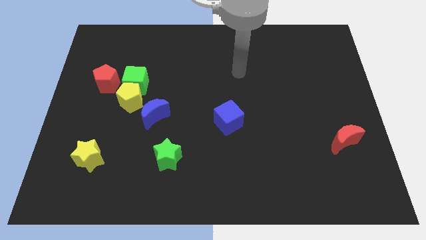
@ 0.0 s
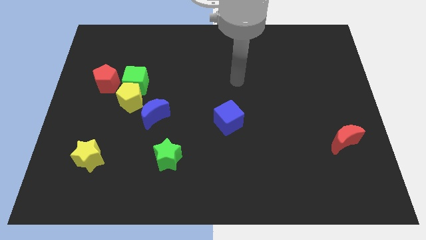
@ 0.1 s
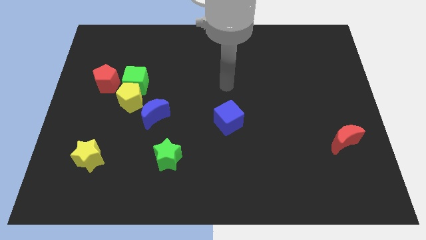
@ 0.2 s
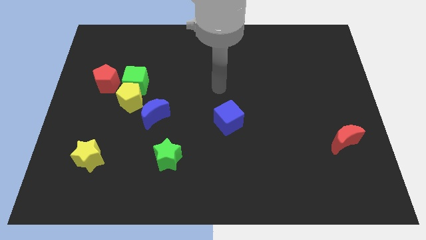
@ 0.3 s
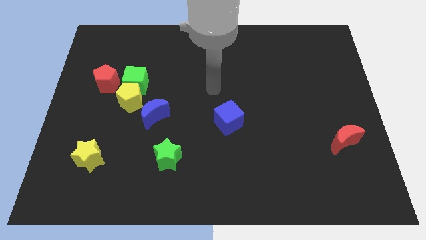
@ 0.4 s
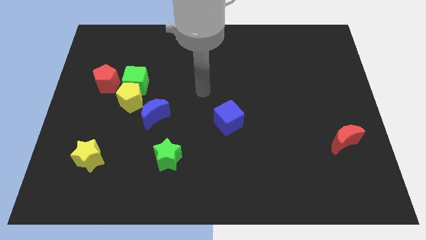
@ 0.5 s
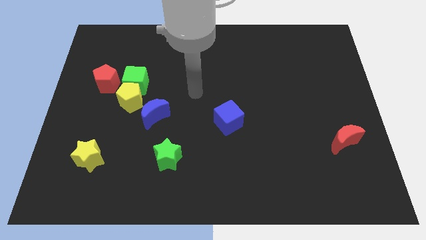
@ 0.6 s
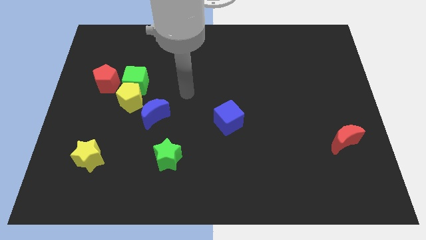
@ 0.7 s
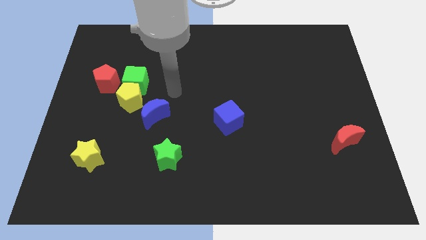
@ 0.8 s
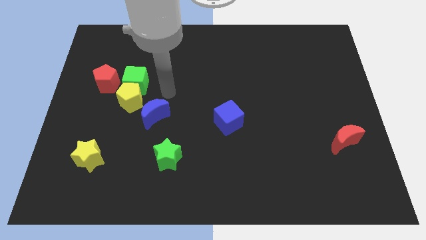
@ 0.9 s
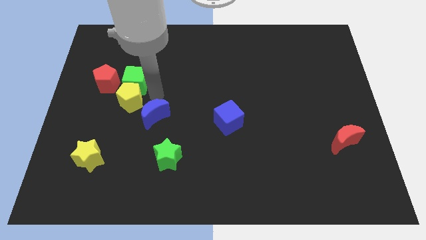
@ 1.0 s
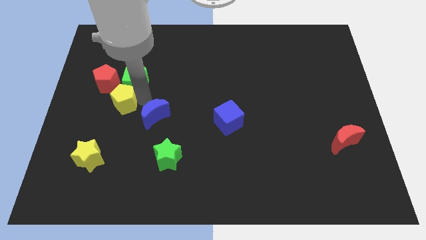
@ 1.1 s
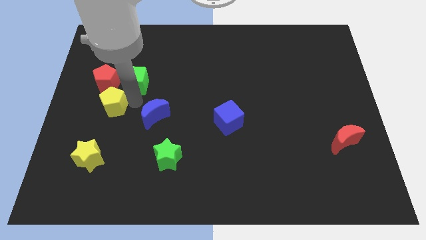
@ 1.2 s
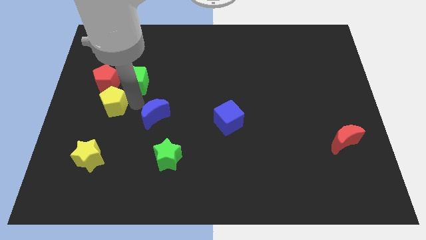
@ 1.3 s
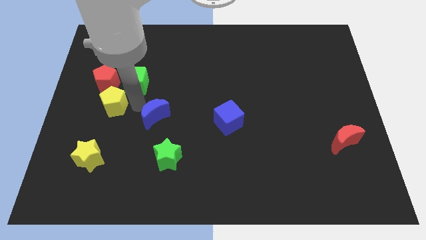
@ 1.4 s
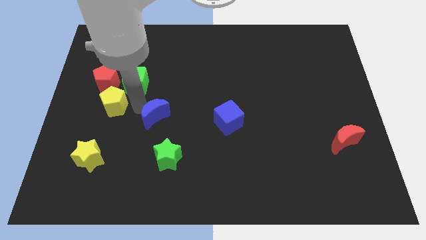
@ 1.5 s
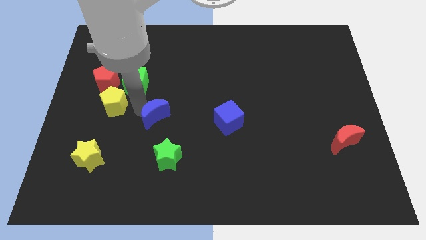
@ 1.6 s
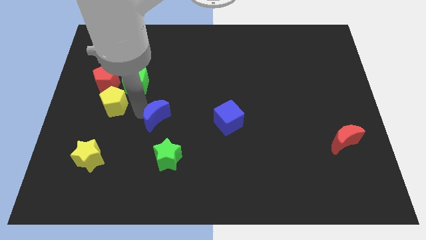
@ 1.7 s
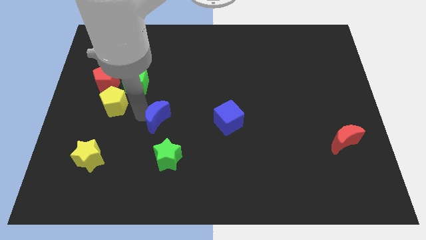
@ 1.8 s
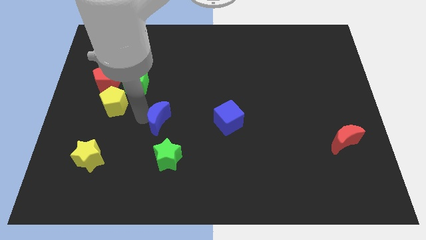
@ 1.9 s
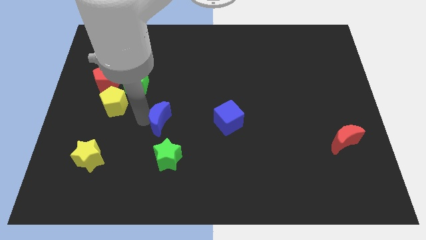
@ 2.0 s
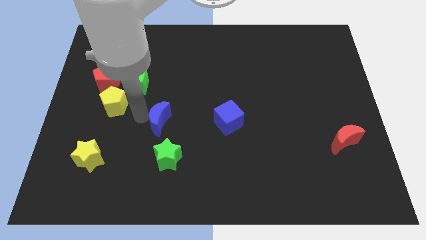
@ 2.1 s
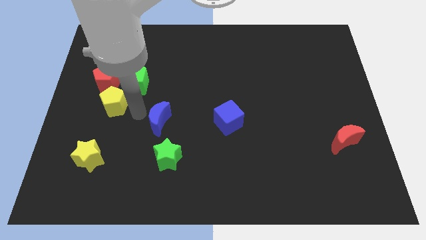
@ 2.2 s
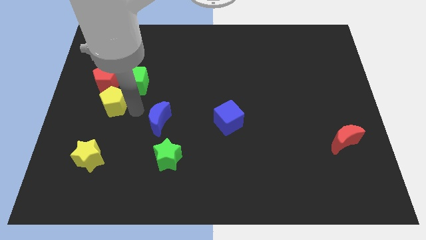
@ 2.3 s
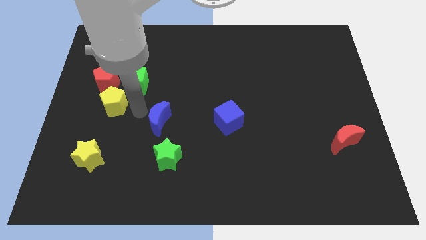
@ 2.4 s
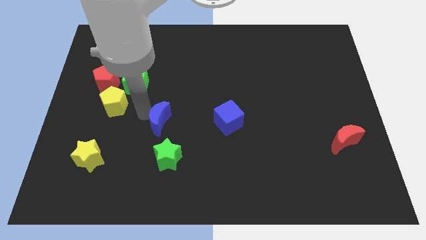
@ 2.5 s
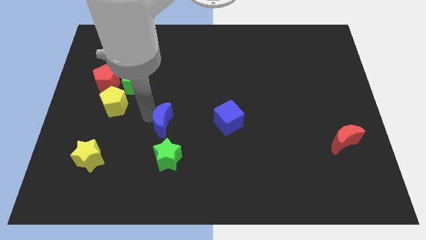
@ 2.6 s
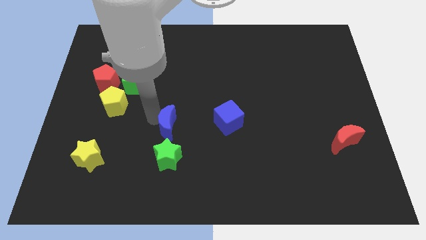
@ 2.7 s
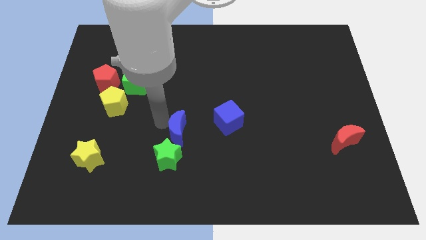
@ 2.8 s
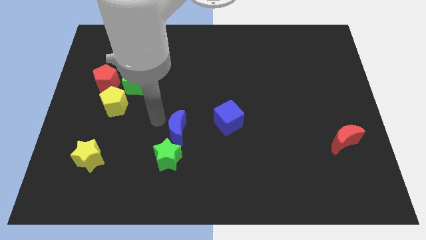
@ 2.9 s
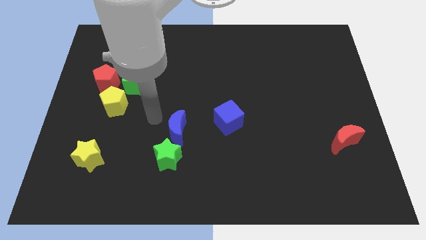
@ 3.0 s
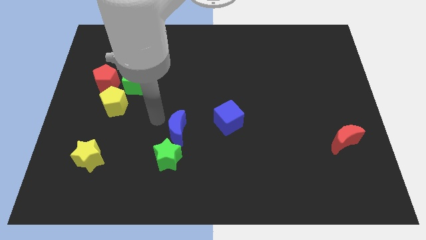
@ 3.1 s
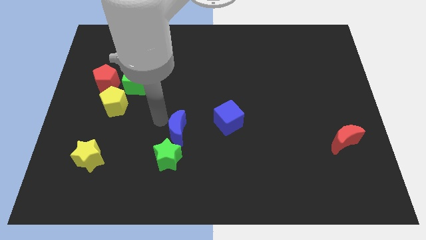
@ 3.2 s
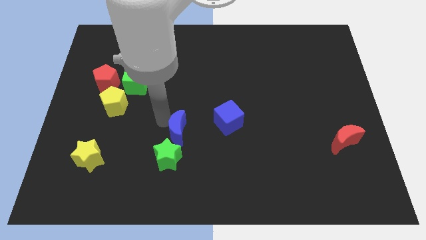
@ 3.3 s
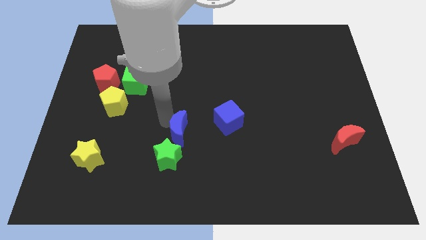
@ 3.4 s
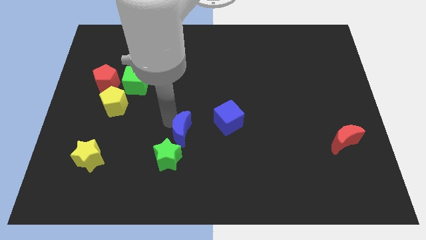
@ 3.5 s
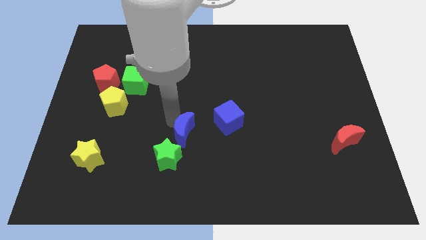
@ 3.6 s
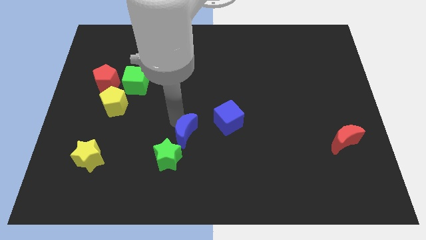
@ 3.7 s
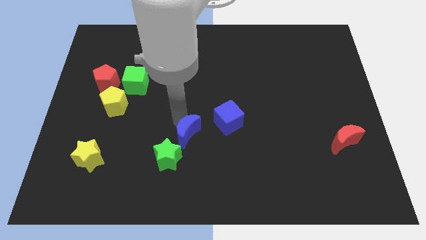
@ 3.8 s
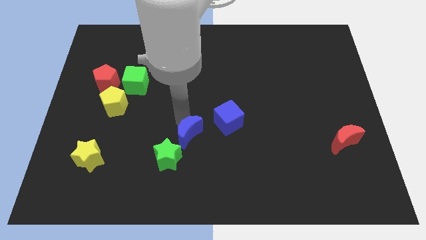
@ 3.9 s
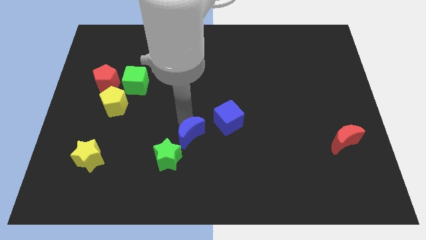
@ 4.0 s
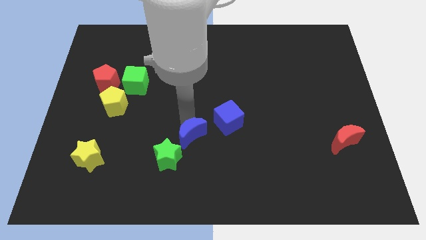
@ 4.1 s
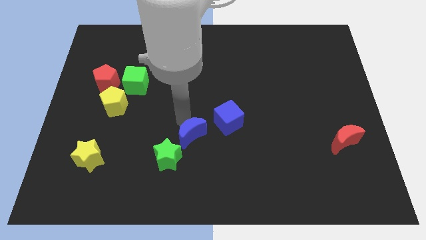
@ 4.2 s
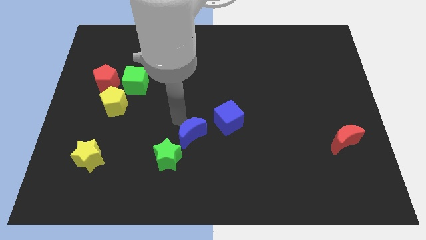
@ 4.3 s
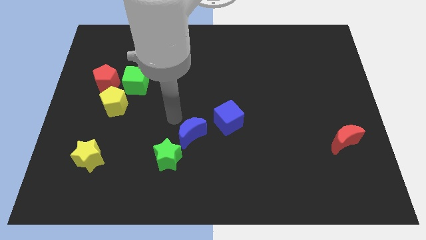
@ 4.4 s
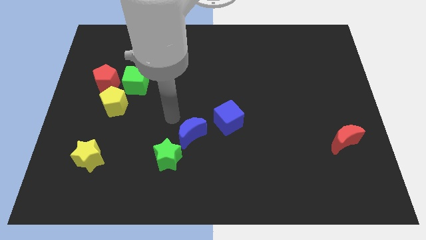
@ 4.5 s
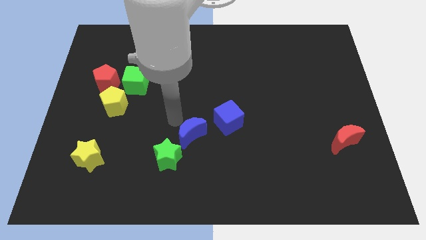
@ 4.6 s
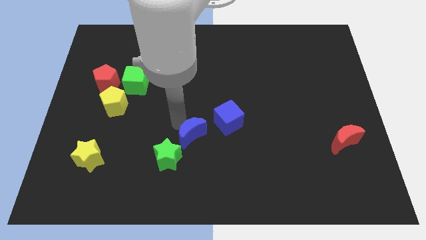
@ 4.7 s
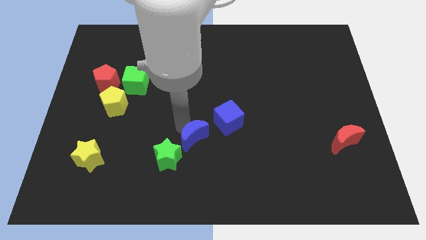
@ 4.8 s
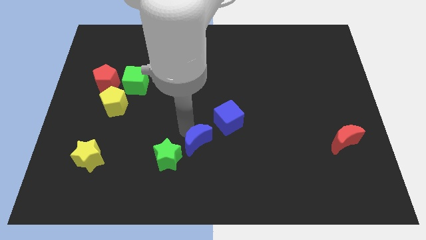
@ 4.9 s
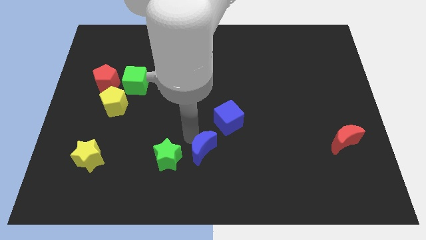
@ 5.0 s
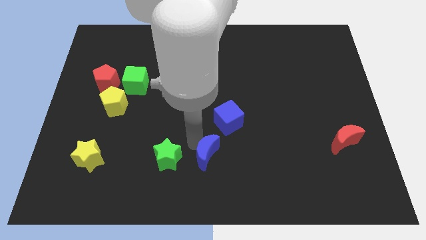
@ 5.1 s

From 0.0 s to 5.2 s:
push the blue moon to the bottom of the blue cube

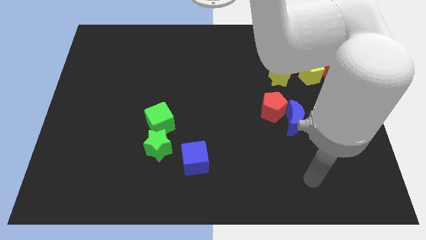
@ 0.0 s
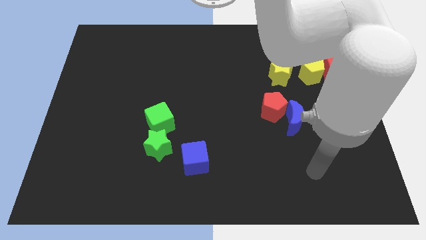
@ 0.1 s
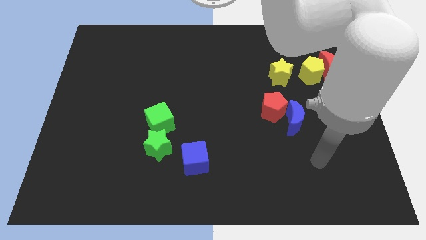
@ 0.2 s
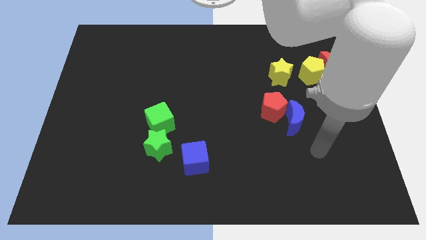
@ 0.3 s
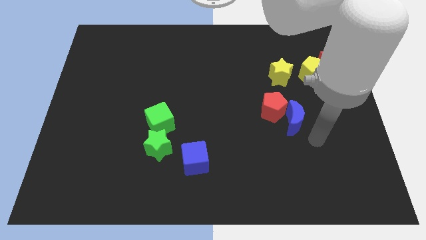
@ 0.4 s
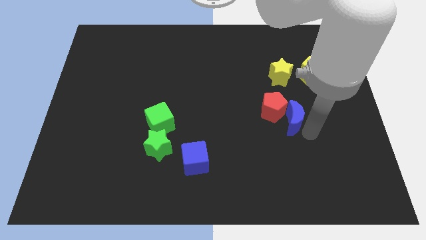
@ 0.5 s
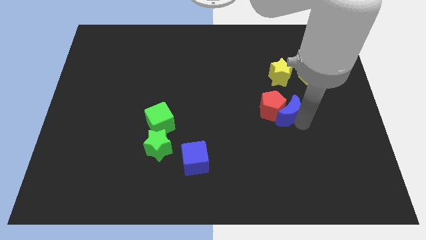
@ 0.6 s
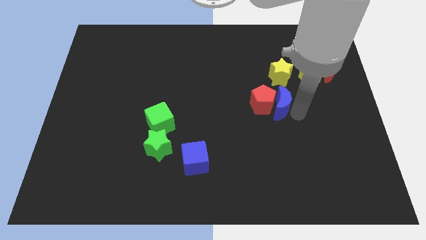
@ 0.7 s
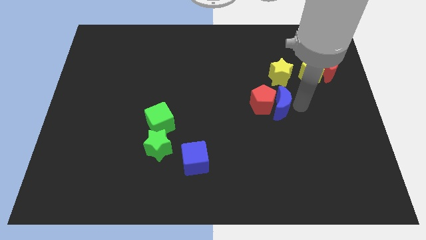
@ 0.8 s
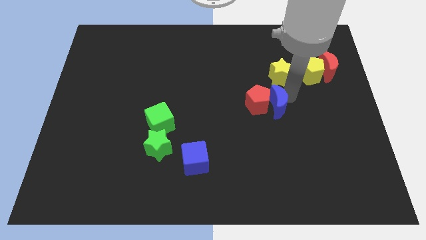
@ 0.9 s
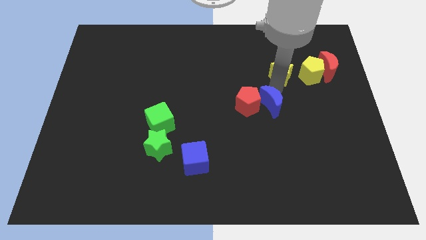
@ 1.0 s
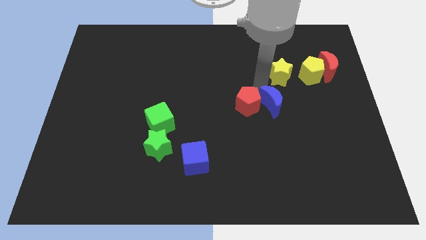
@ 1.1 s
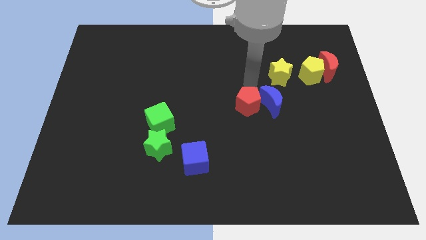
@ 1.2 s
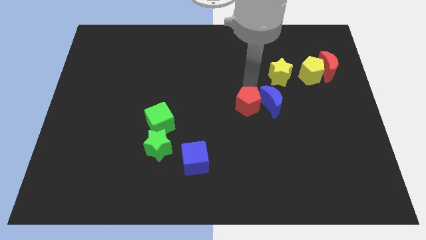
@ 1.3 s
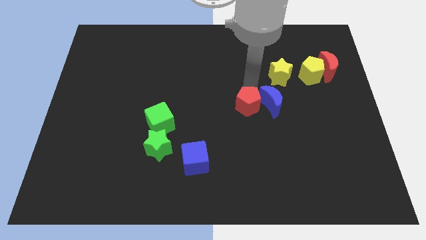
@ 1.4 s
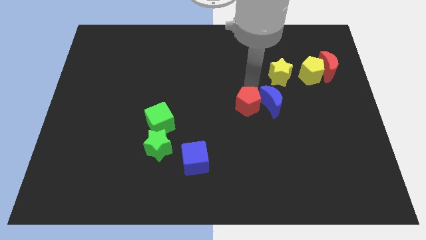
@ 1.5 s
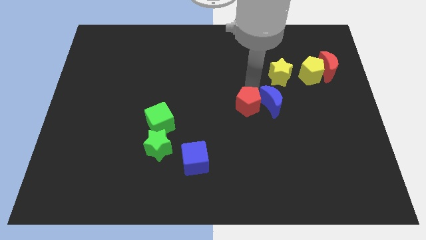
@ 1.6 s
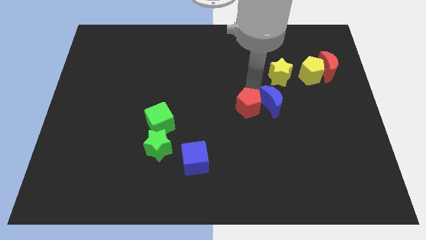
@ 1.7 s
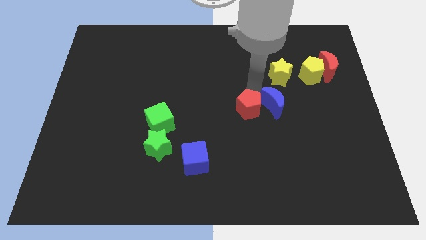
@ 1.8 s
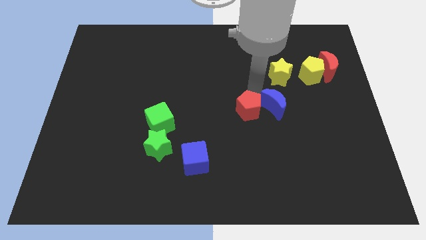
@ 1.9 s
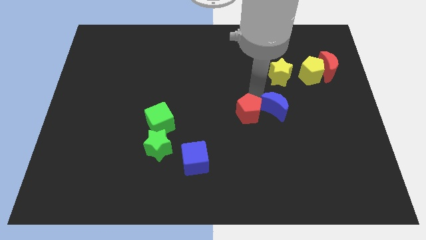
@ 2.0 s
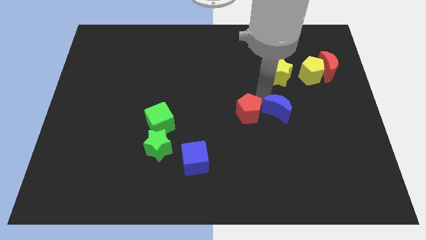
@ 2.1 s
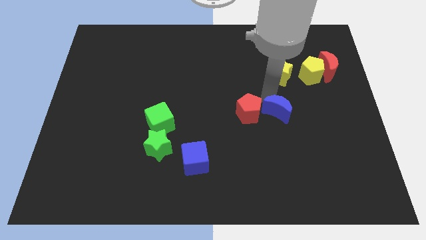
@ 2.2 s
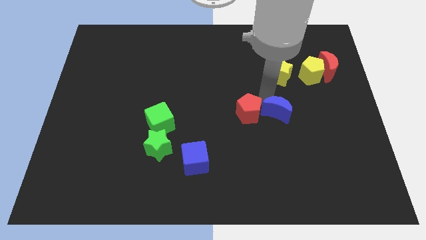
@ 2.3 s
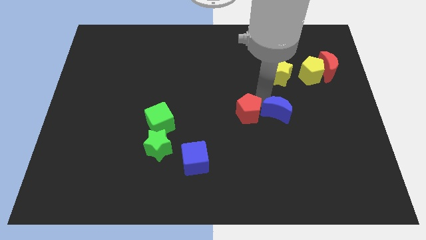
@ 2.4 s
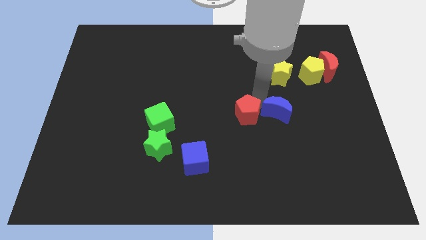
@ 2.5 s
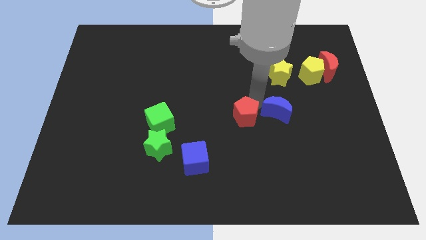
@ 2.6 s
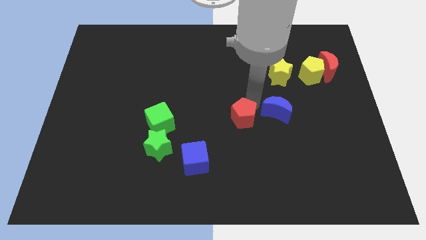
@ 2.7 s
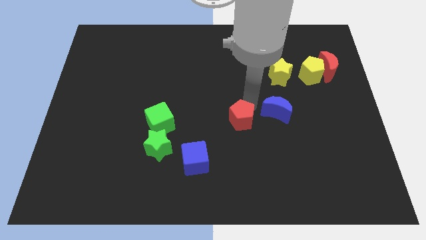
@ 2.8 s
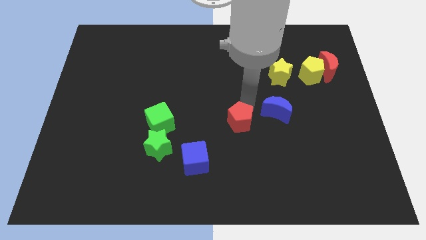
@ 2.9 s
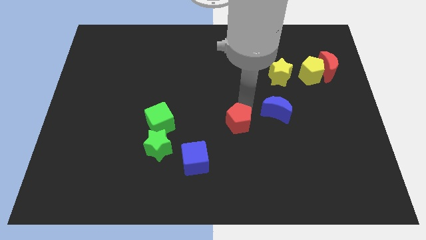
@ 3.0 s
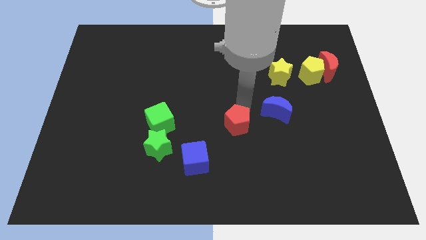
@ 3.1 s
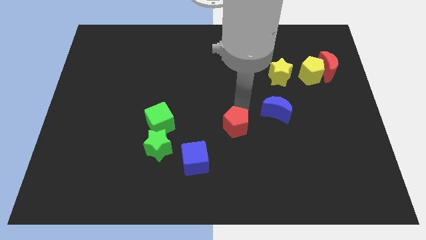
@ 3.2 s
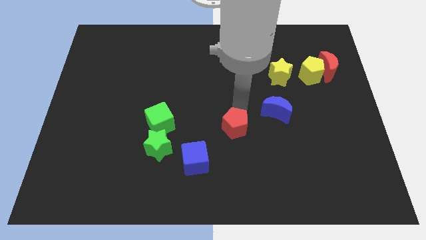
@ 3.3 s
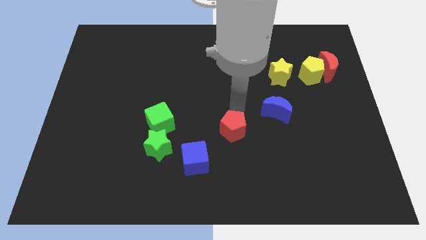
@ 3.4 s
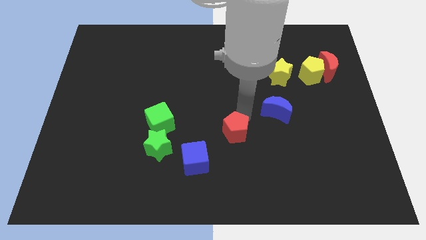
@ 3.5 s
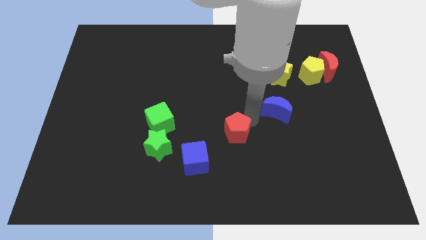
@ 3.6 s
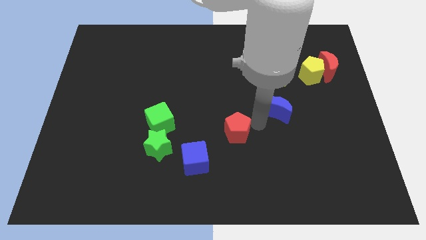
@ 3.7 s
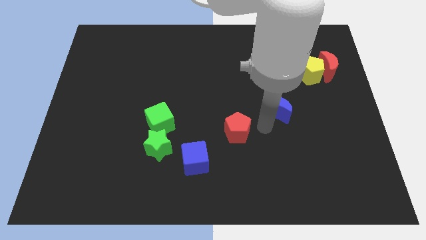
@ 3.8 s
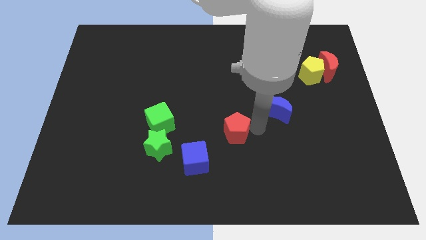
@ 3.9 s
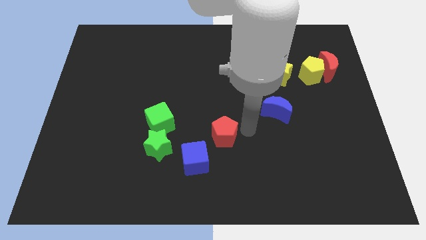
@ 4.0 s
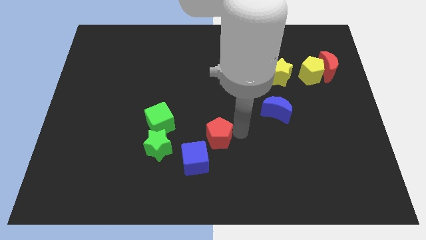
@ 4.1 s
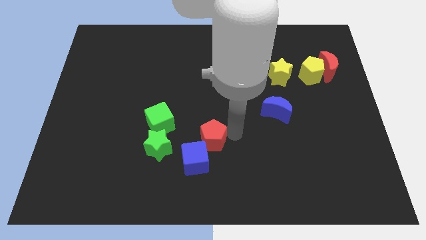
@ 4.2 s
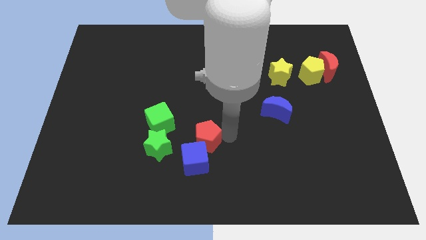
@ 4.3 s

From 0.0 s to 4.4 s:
push the red pentagon to the bottom right side of the green cube
